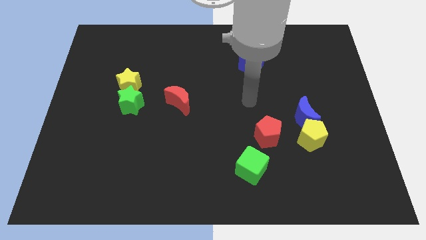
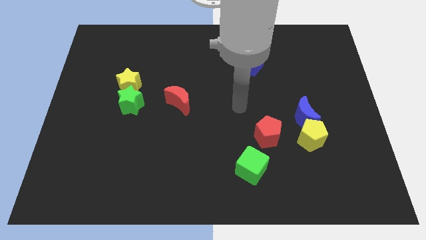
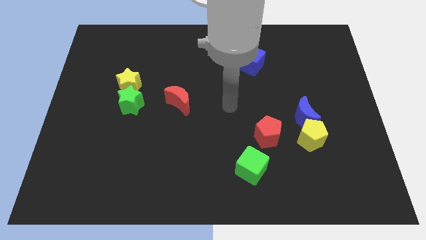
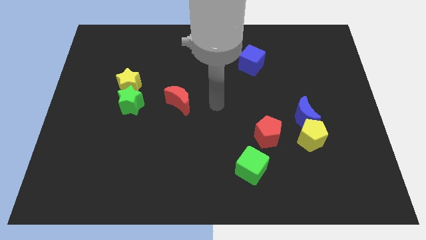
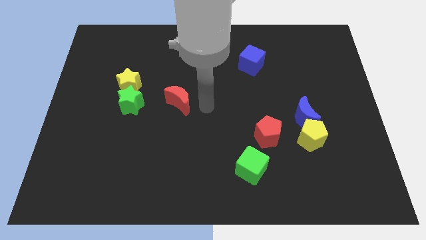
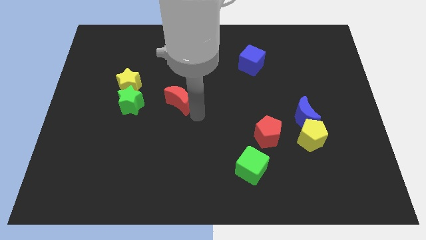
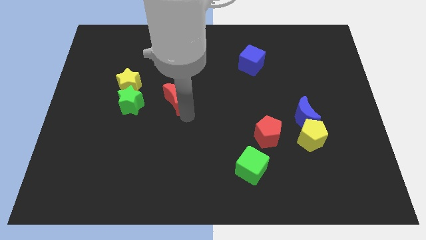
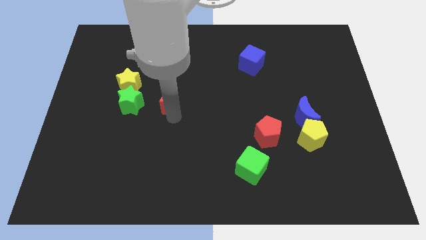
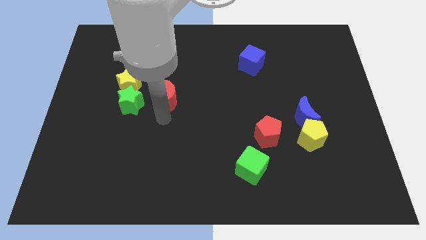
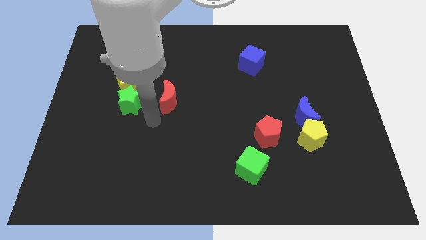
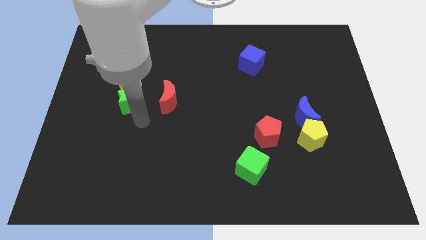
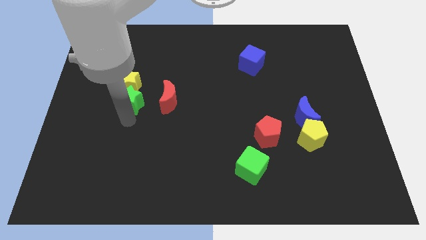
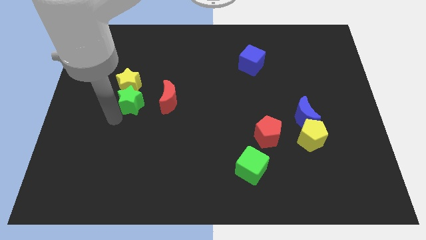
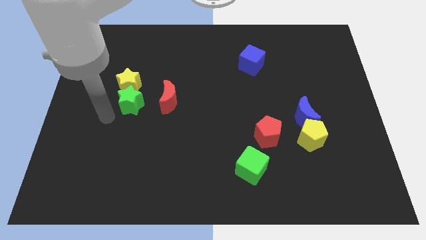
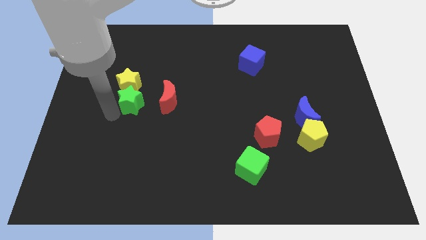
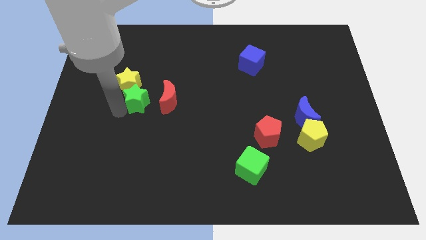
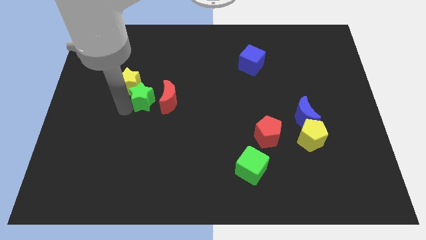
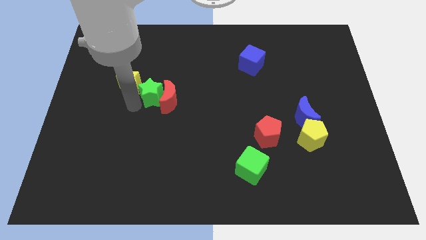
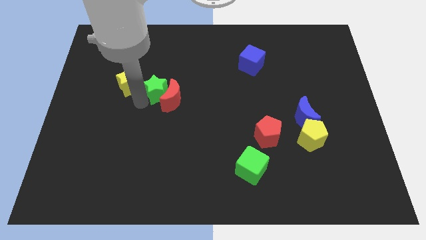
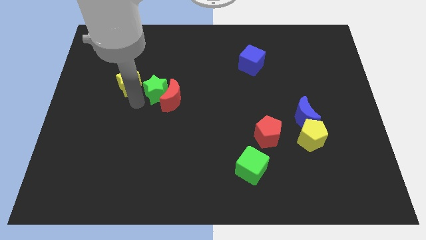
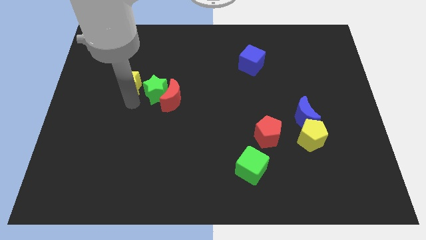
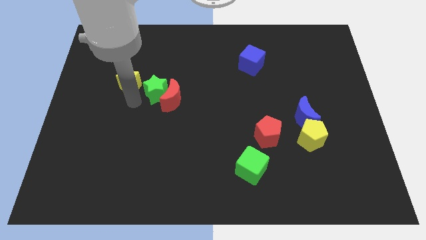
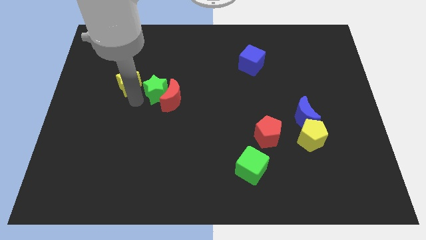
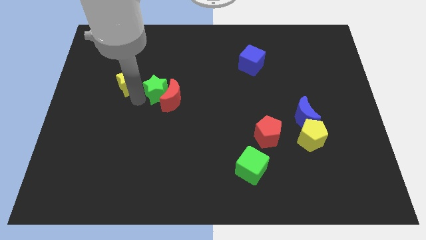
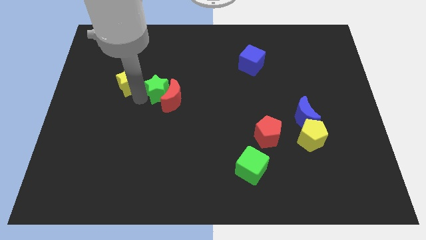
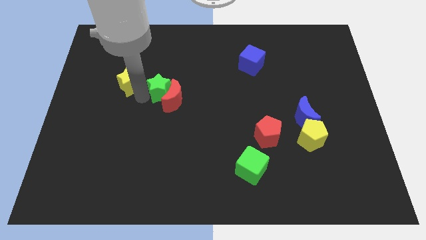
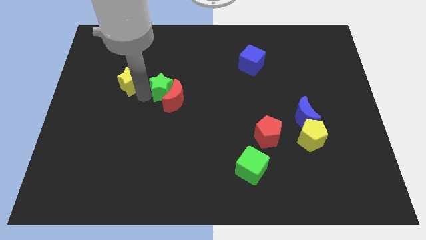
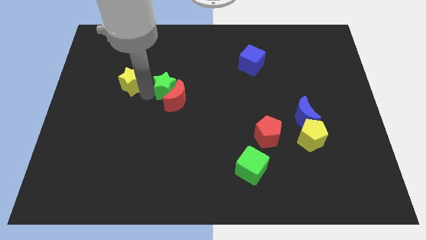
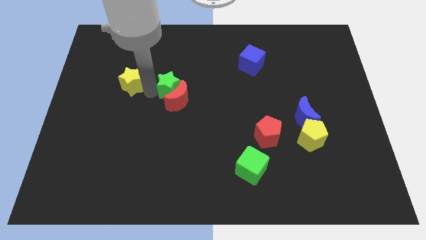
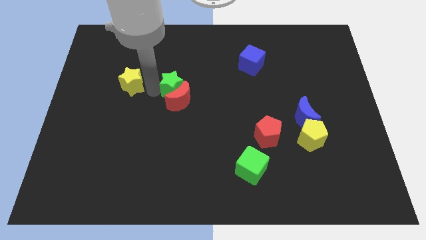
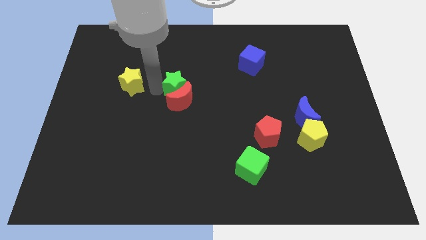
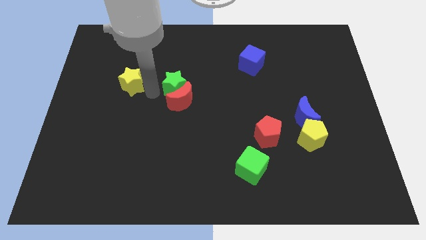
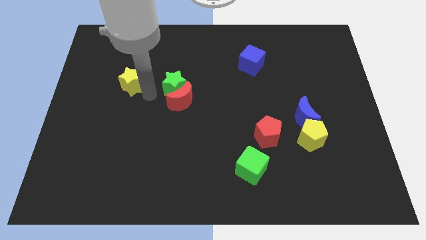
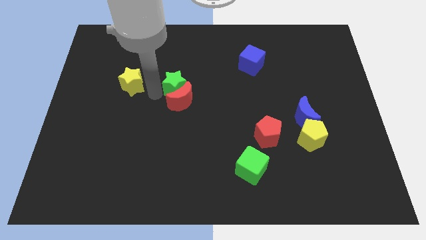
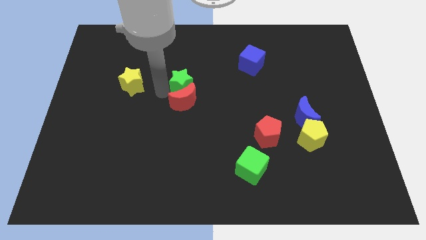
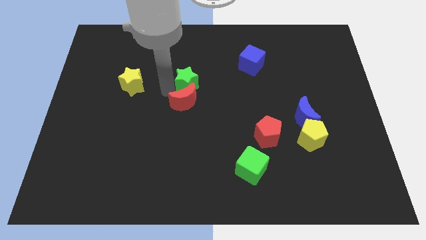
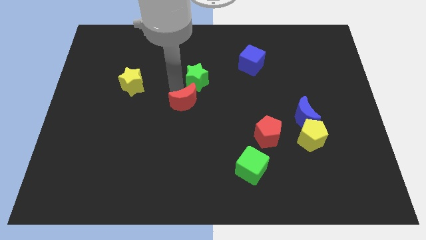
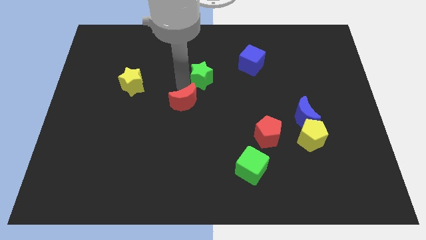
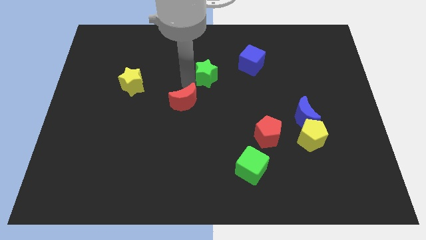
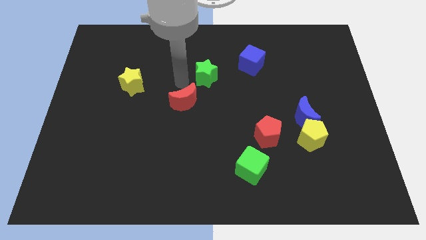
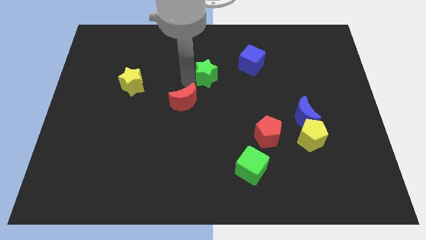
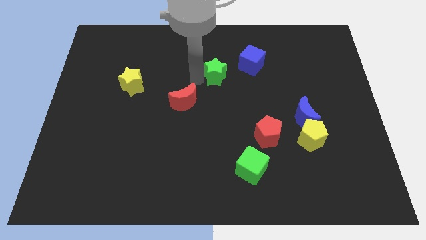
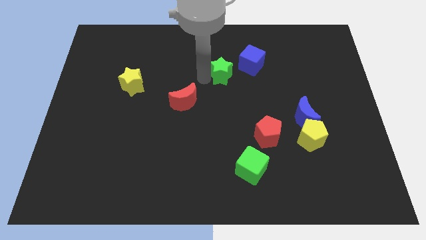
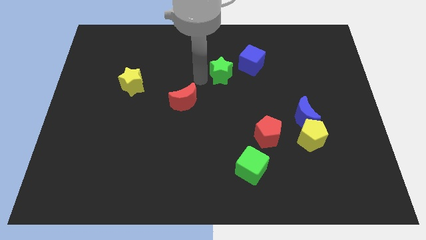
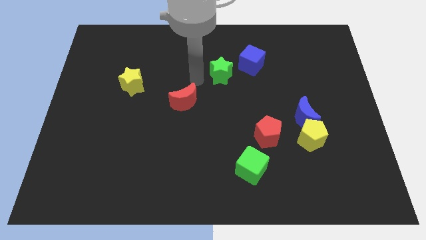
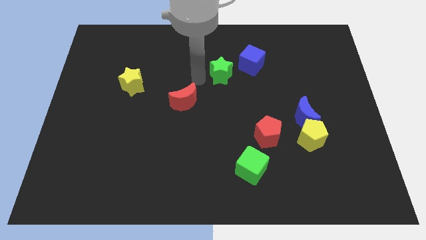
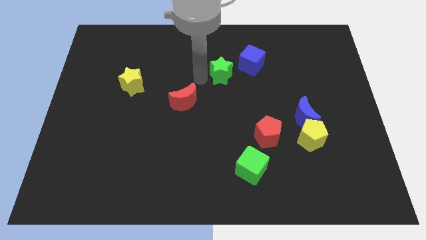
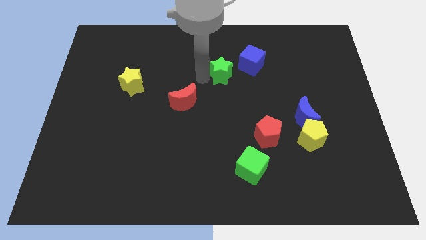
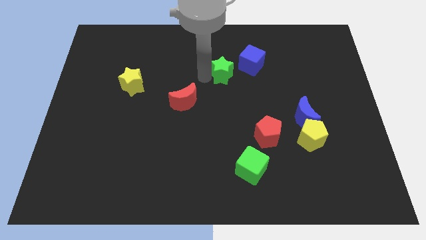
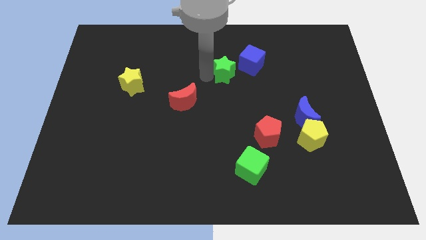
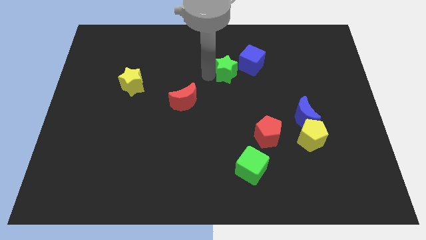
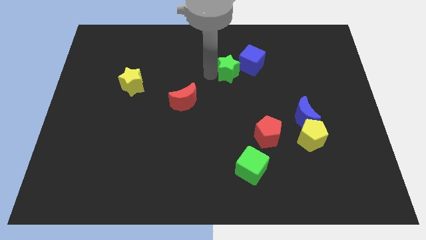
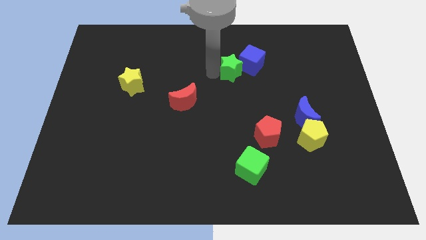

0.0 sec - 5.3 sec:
slide the green star towards the blue cube

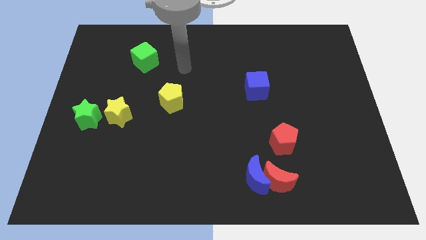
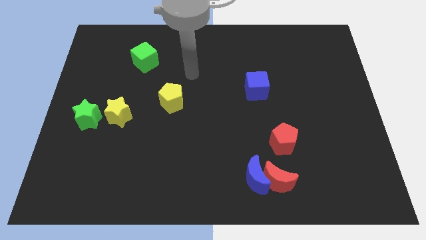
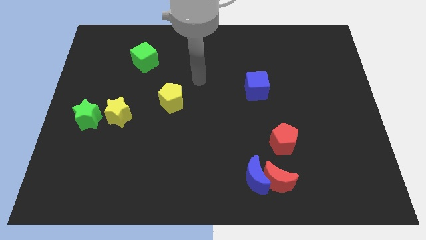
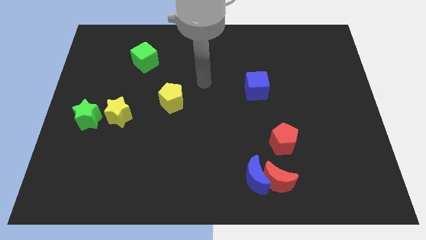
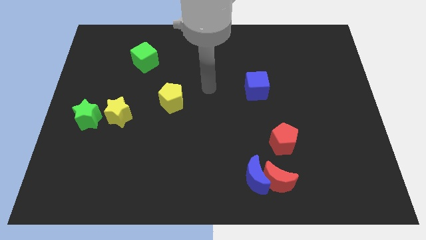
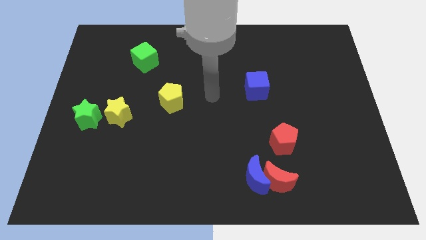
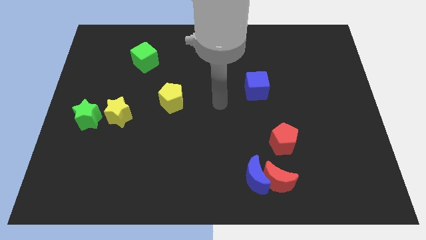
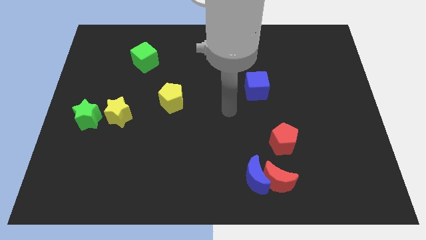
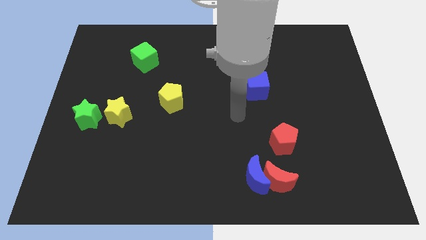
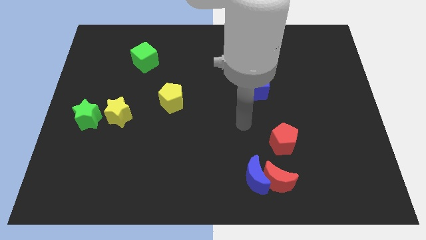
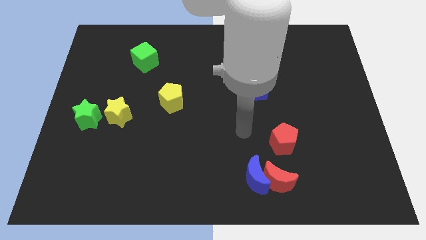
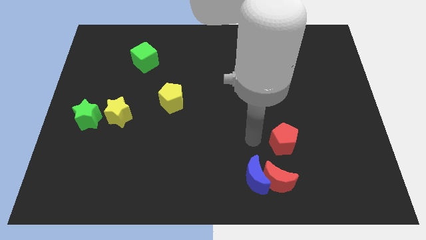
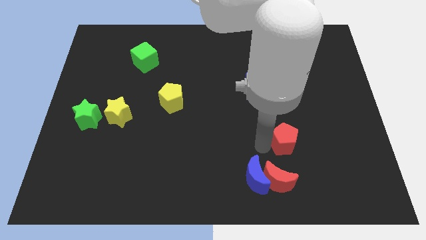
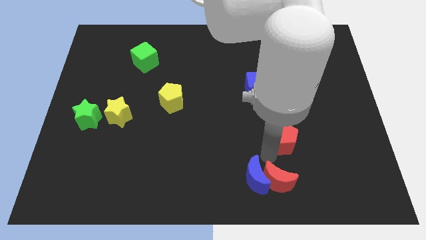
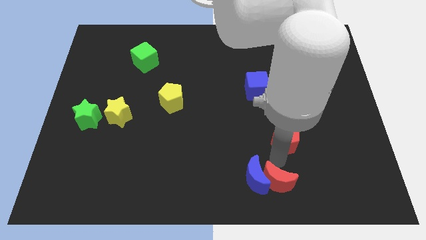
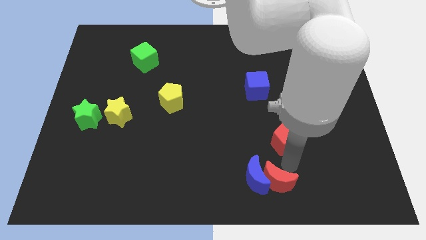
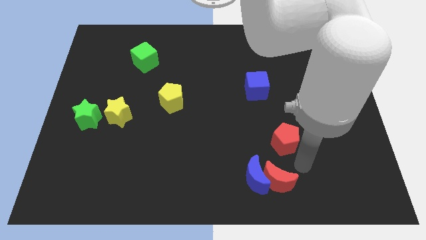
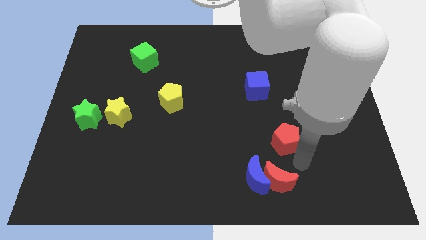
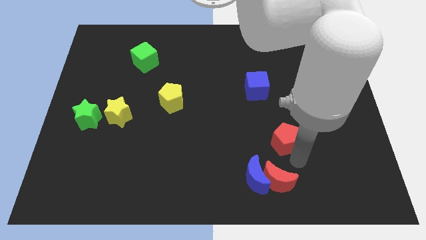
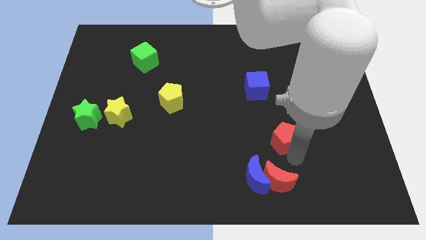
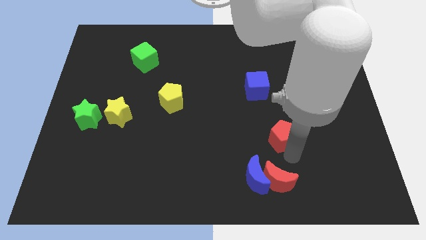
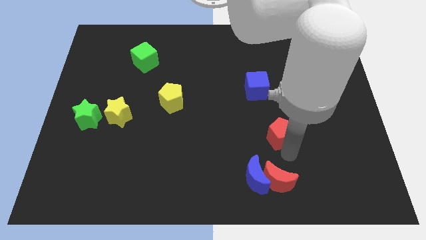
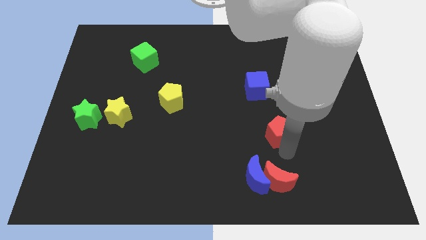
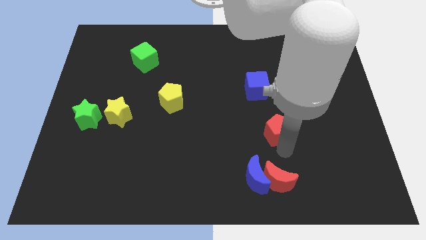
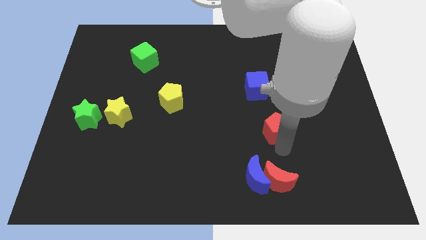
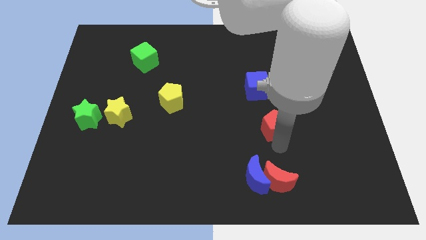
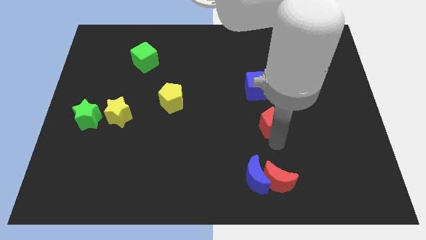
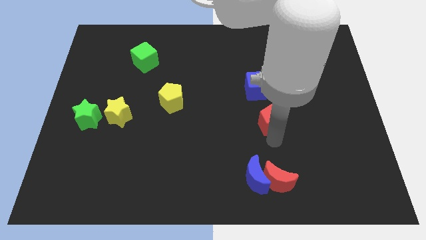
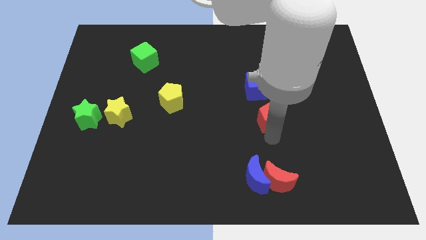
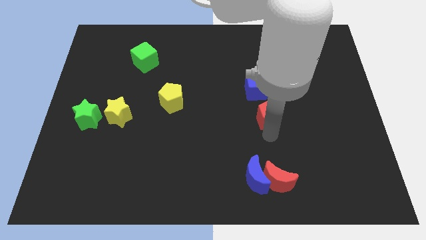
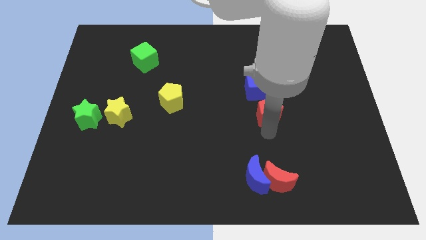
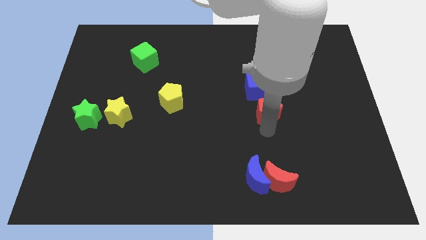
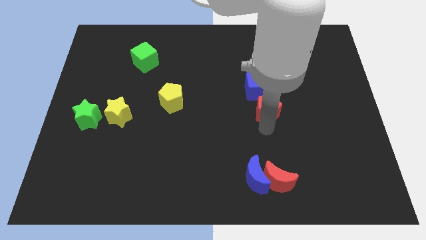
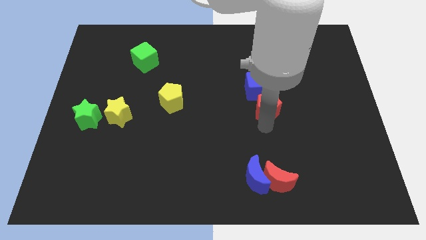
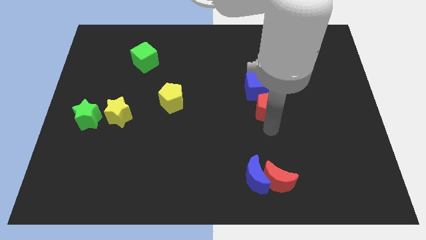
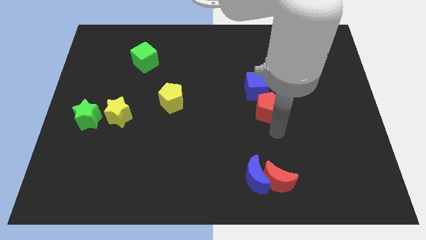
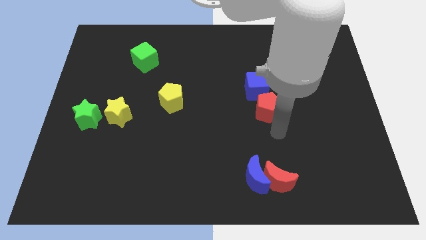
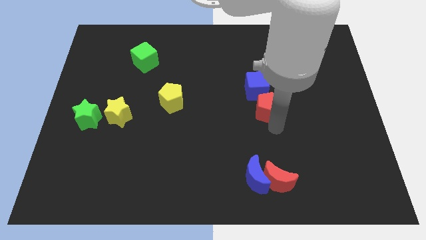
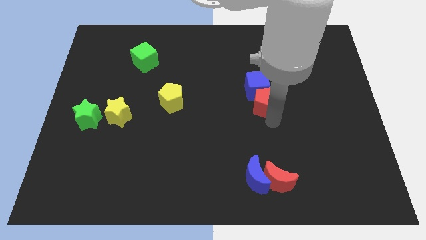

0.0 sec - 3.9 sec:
push the red pentagon close to the blue cube
